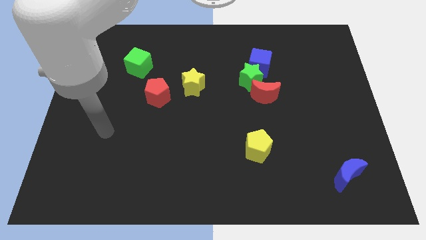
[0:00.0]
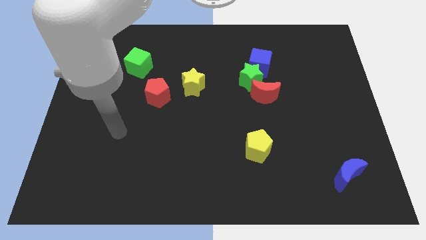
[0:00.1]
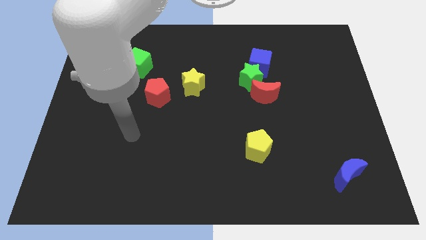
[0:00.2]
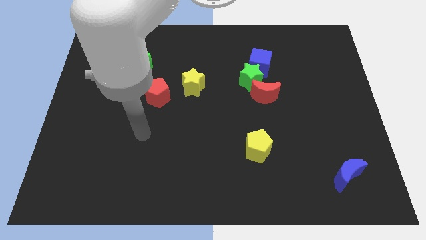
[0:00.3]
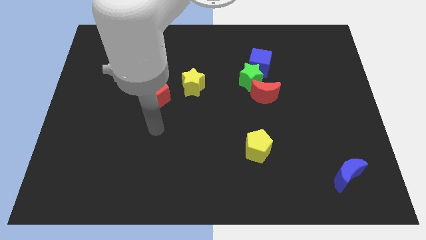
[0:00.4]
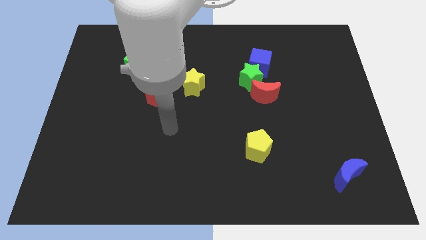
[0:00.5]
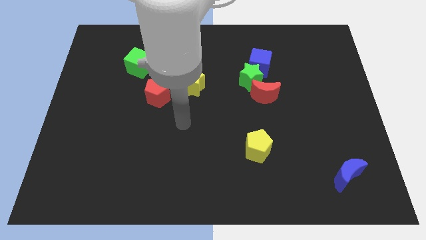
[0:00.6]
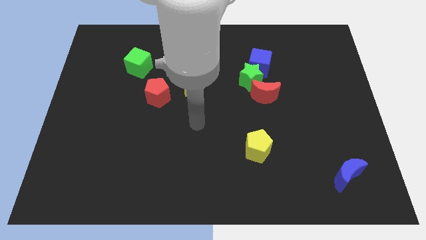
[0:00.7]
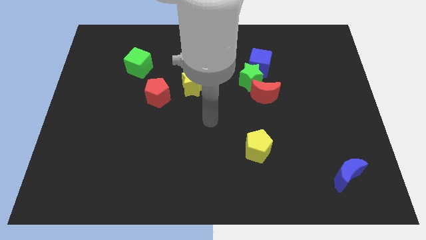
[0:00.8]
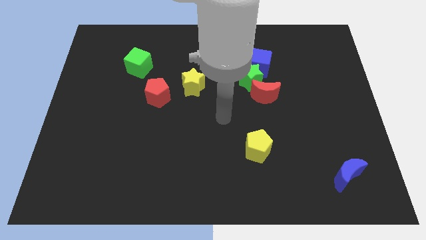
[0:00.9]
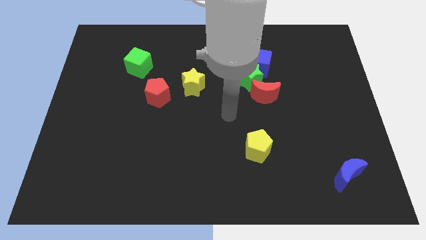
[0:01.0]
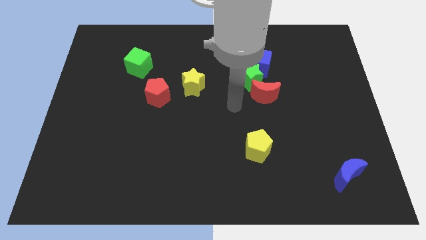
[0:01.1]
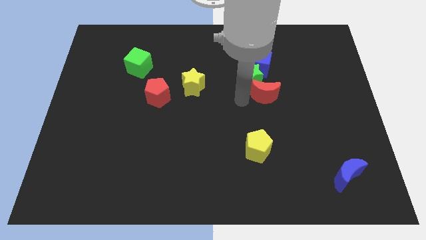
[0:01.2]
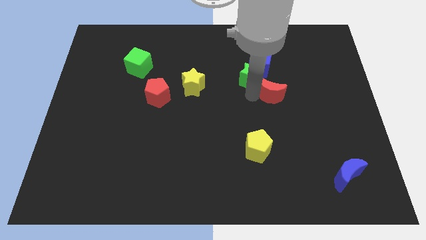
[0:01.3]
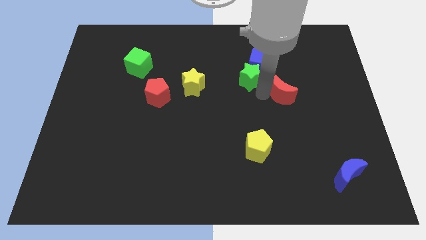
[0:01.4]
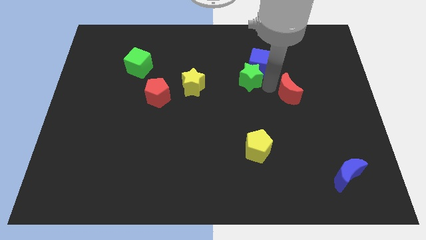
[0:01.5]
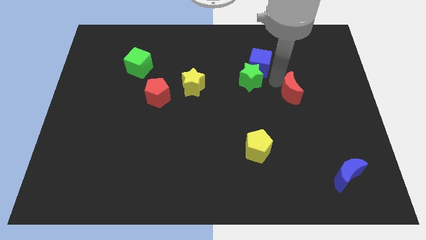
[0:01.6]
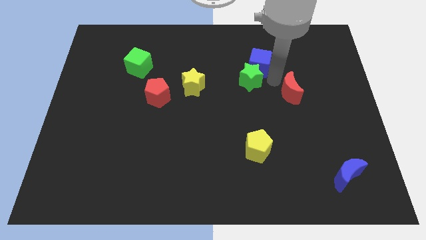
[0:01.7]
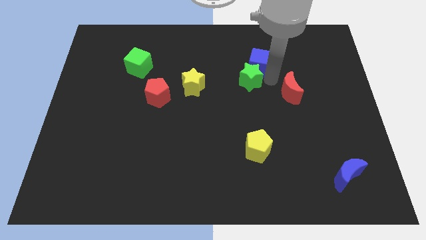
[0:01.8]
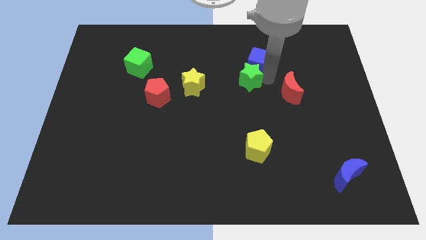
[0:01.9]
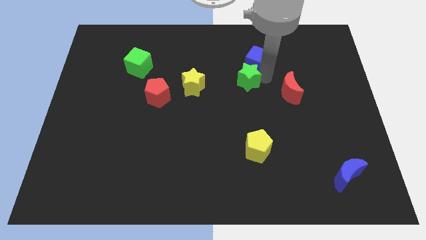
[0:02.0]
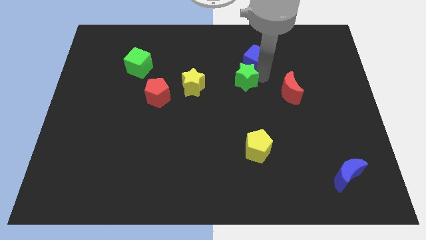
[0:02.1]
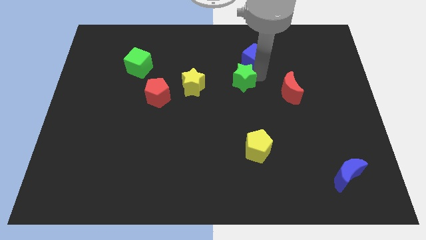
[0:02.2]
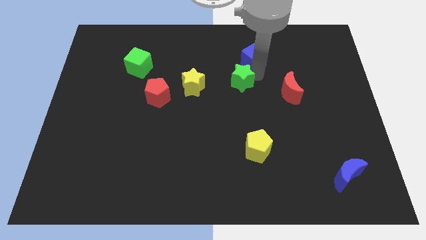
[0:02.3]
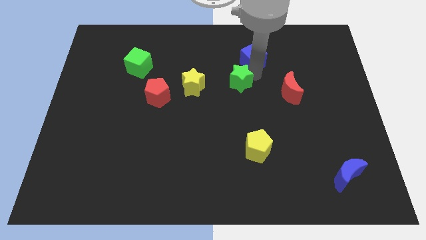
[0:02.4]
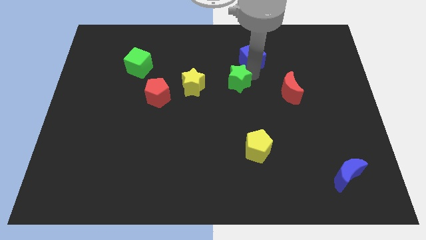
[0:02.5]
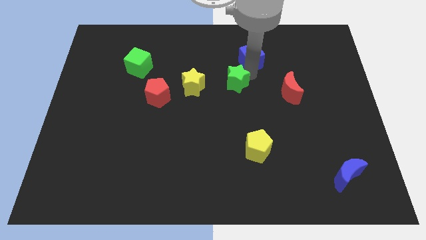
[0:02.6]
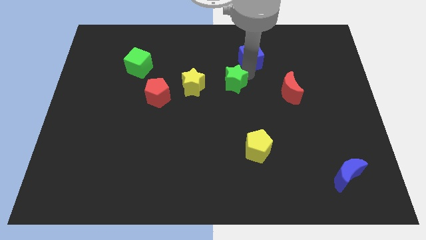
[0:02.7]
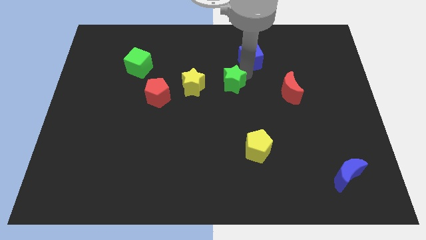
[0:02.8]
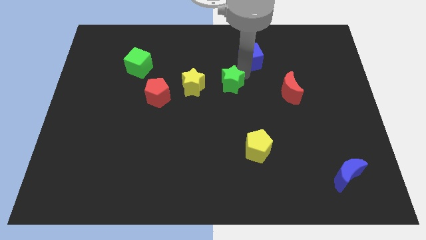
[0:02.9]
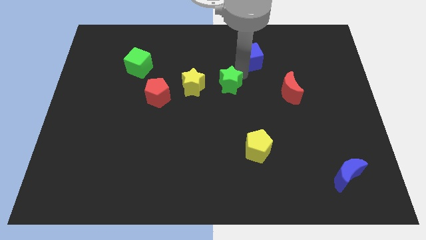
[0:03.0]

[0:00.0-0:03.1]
pull the green star apart from the blue cube and red moon

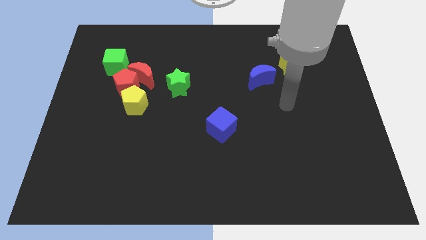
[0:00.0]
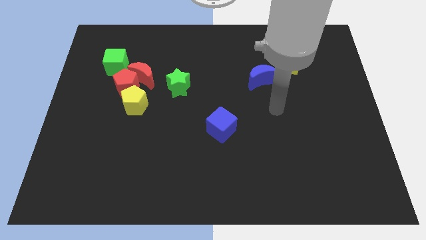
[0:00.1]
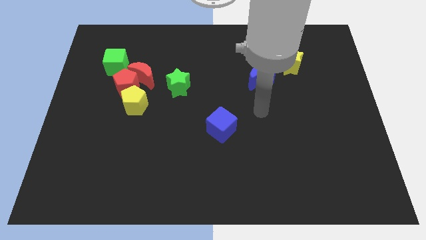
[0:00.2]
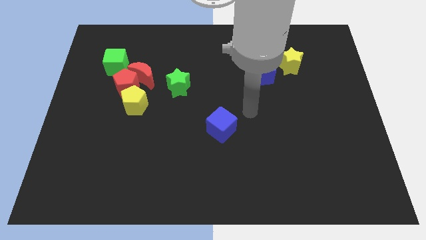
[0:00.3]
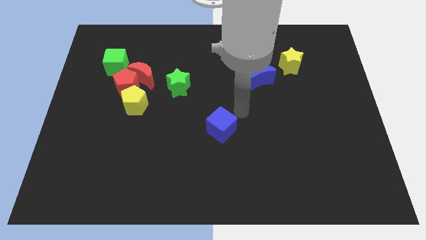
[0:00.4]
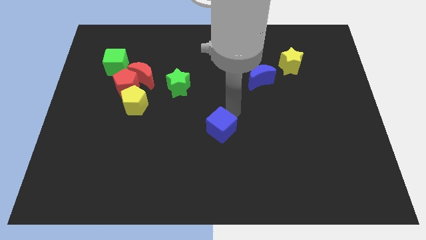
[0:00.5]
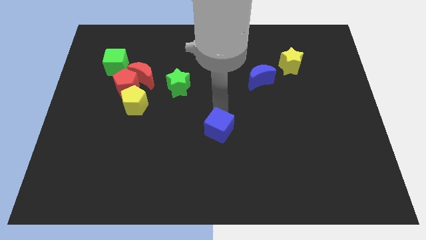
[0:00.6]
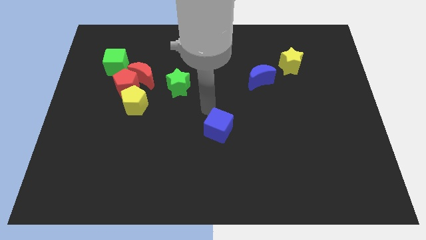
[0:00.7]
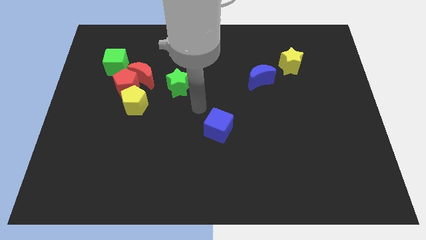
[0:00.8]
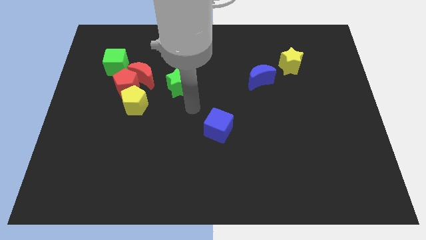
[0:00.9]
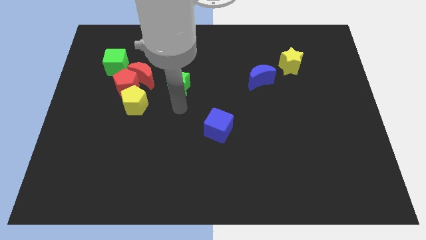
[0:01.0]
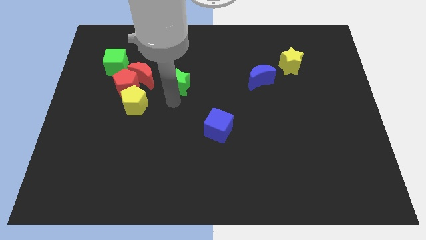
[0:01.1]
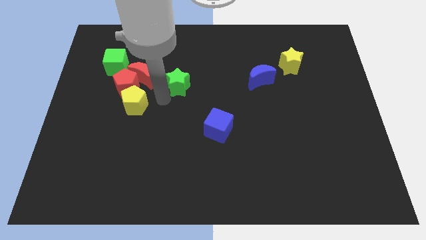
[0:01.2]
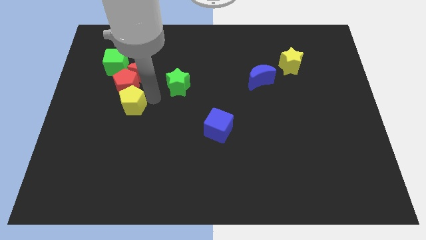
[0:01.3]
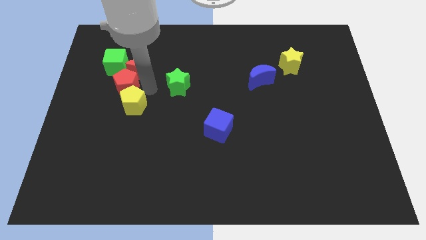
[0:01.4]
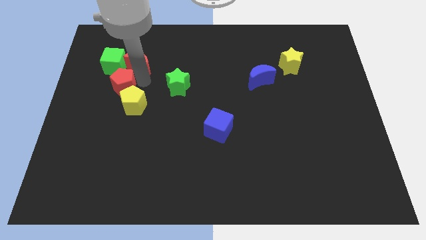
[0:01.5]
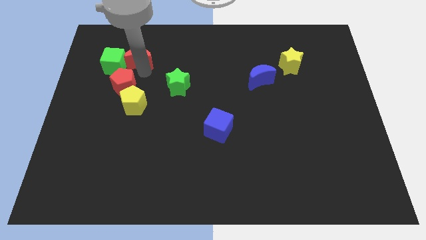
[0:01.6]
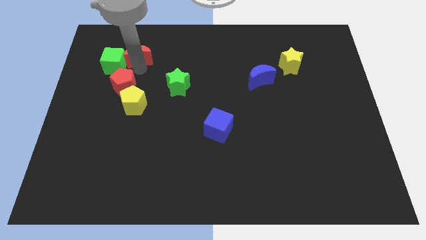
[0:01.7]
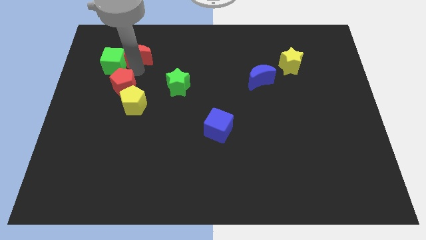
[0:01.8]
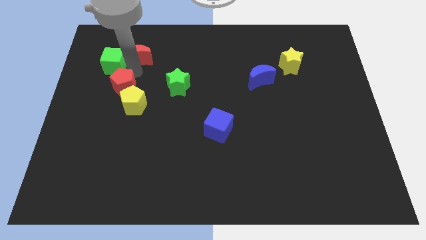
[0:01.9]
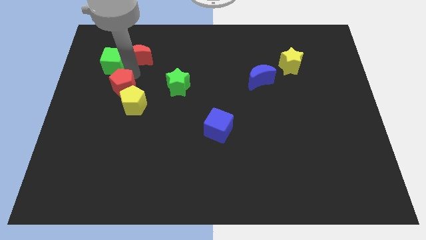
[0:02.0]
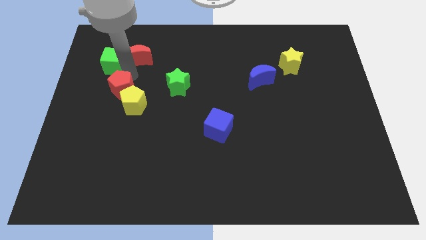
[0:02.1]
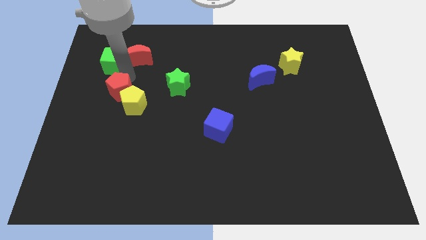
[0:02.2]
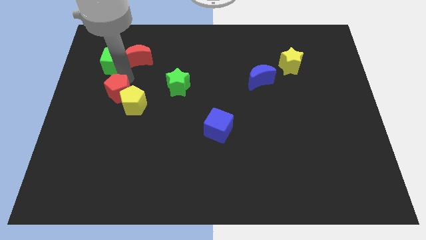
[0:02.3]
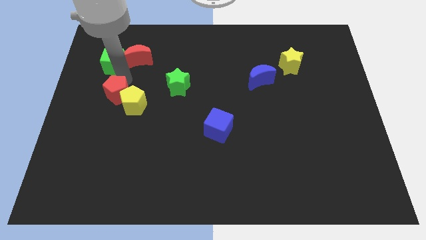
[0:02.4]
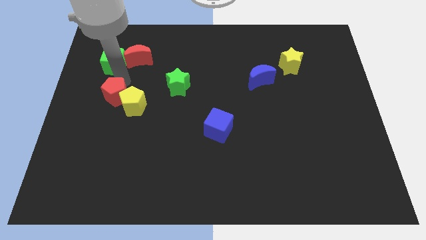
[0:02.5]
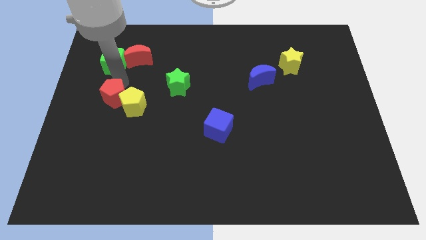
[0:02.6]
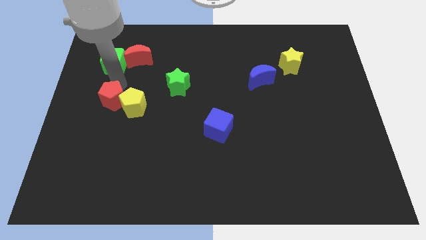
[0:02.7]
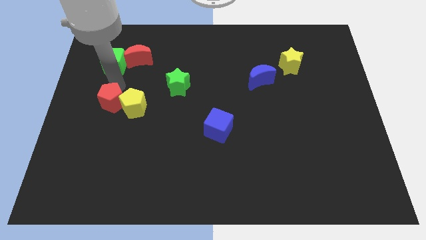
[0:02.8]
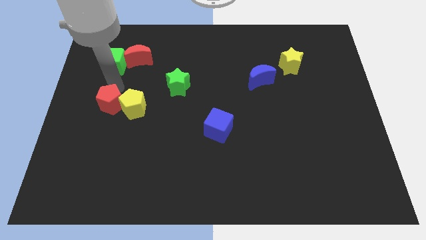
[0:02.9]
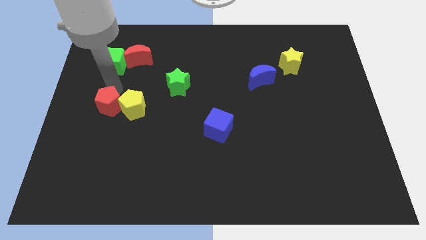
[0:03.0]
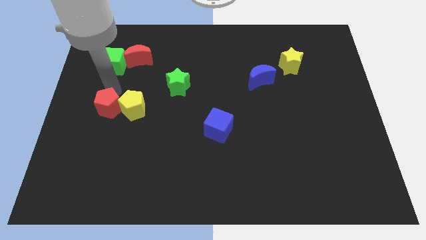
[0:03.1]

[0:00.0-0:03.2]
separate the red pentagon from the red moon, yellow pentagon, and green cube

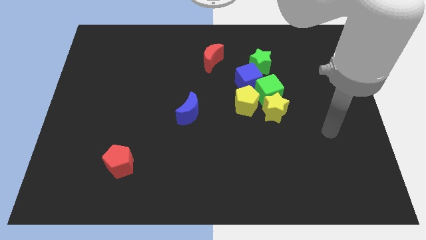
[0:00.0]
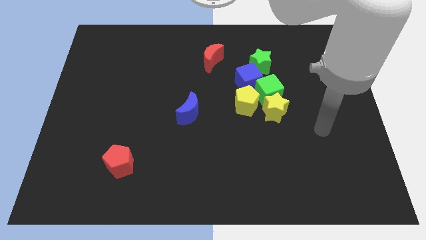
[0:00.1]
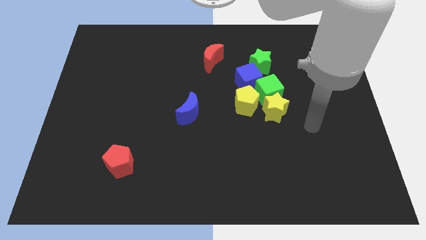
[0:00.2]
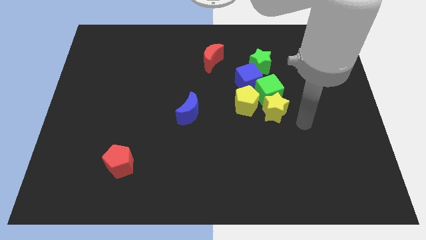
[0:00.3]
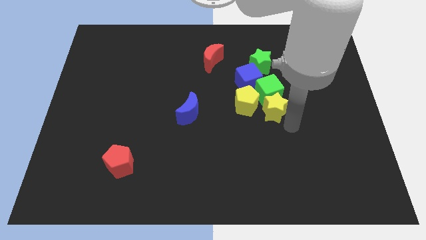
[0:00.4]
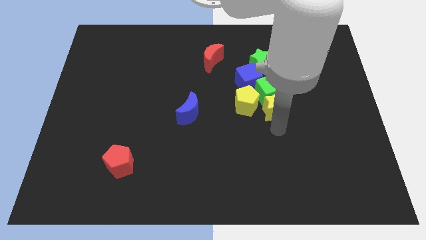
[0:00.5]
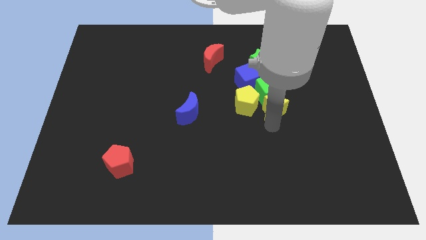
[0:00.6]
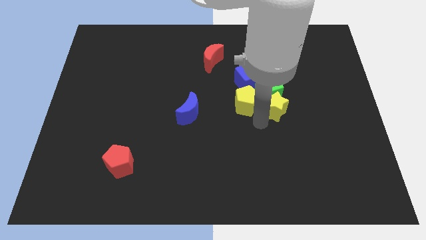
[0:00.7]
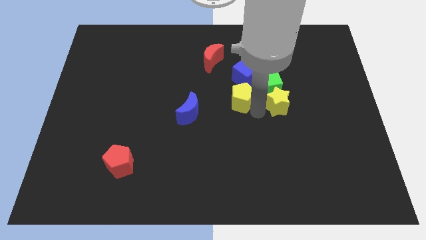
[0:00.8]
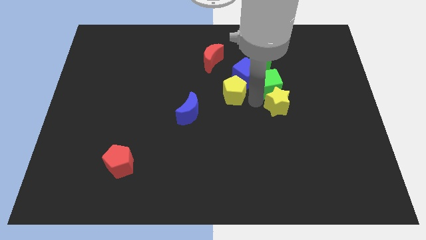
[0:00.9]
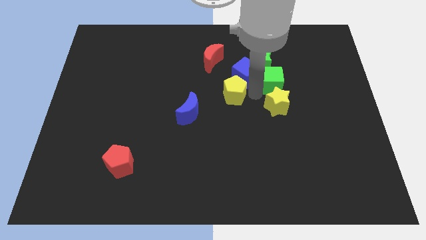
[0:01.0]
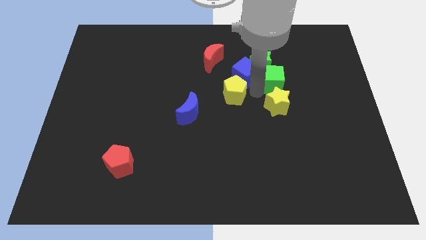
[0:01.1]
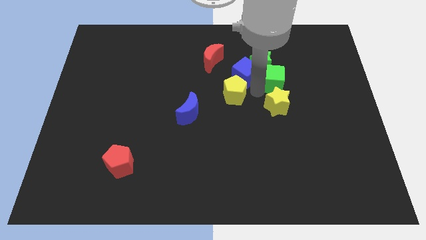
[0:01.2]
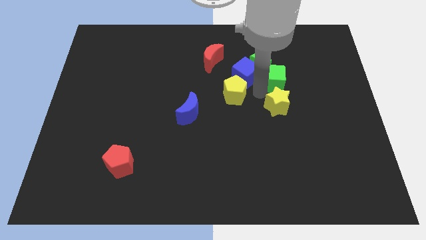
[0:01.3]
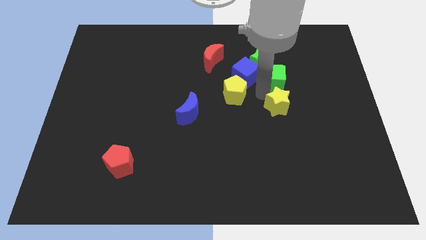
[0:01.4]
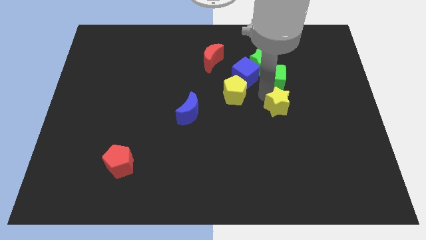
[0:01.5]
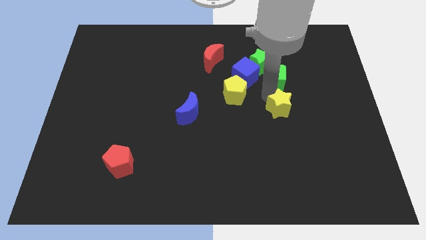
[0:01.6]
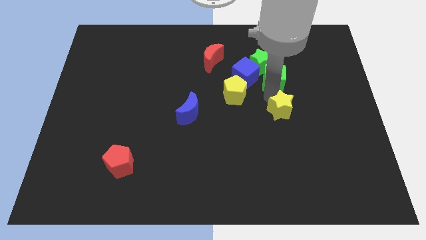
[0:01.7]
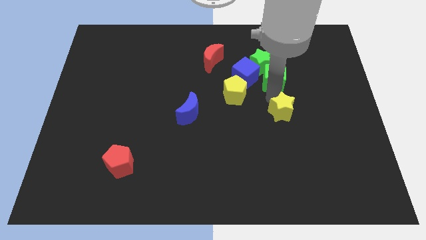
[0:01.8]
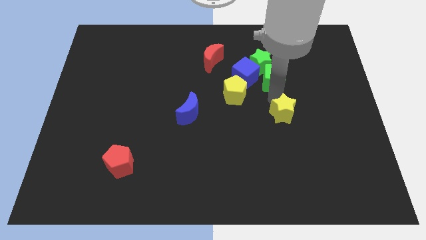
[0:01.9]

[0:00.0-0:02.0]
move the yellow star away from the green cube and yellow pentagon

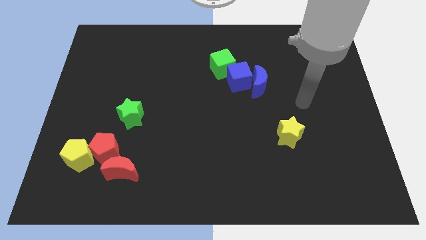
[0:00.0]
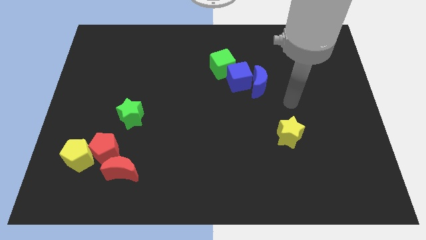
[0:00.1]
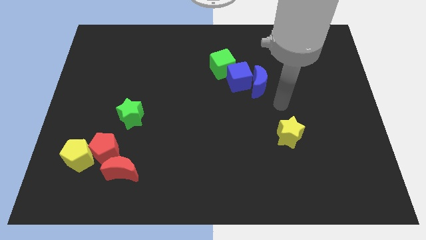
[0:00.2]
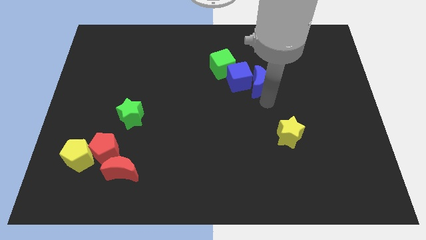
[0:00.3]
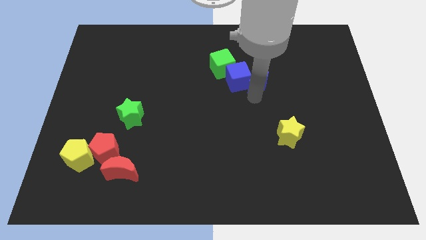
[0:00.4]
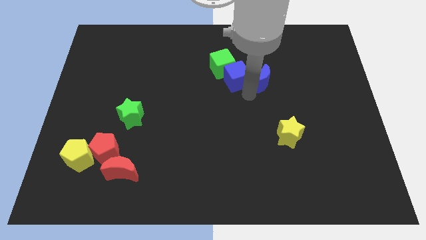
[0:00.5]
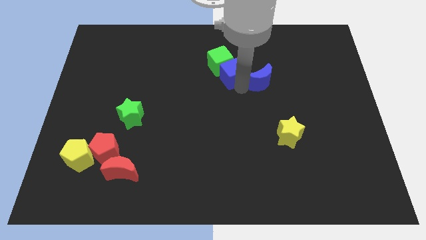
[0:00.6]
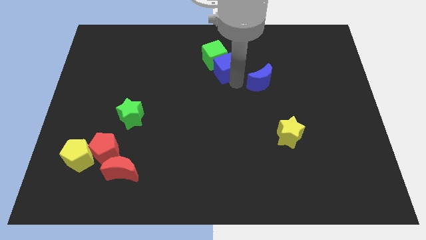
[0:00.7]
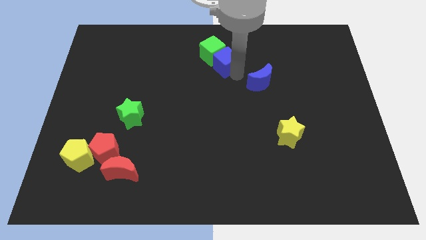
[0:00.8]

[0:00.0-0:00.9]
pull the blue moon apart from the blue cube

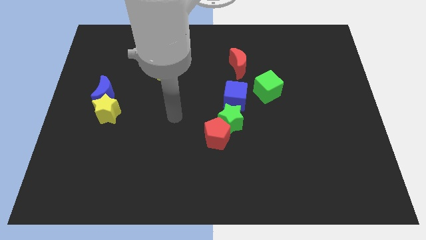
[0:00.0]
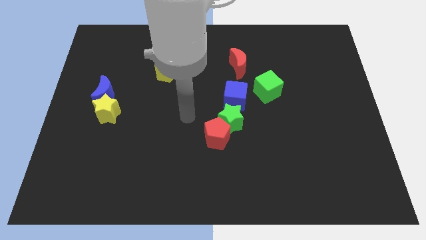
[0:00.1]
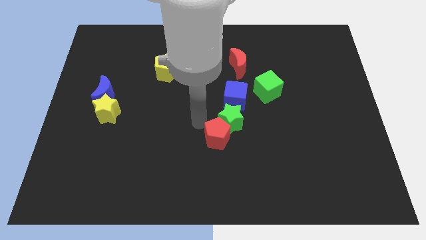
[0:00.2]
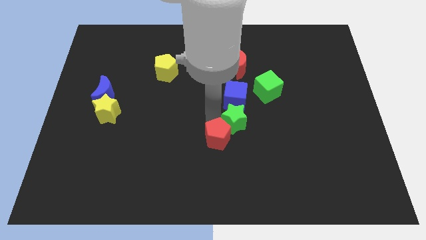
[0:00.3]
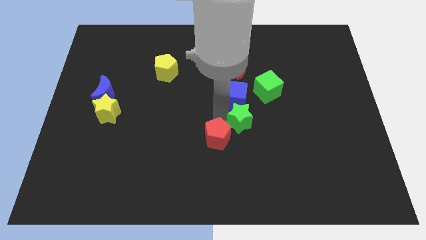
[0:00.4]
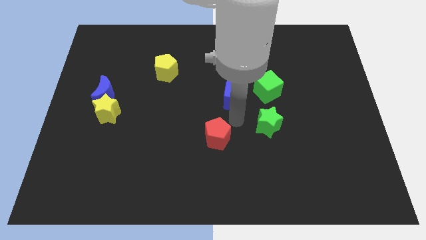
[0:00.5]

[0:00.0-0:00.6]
separate the red pentagon from the green star
